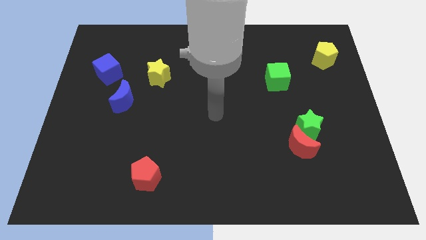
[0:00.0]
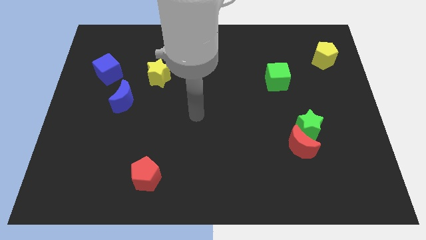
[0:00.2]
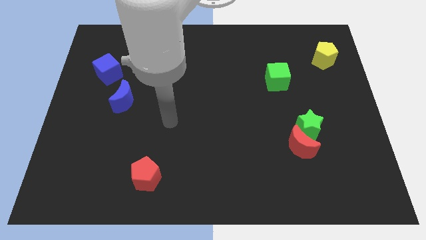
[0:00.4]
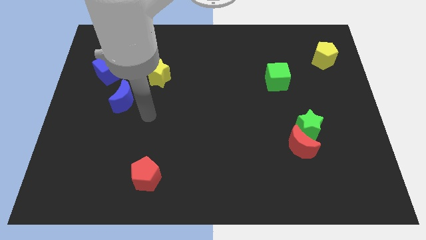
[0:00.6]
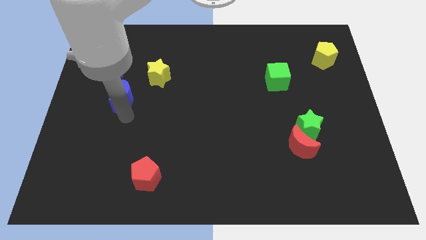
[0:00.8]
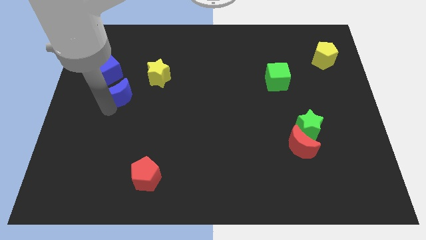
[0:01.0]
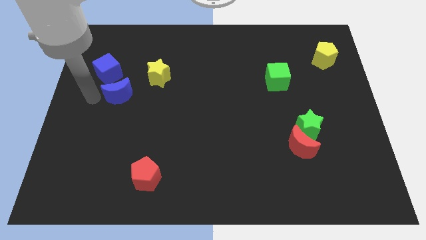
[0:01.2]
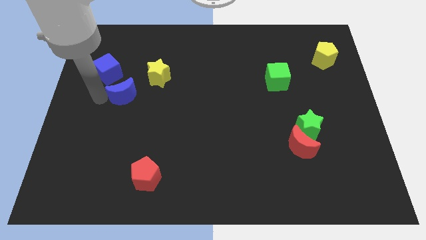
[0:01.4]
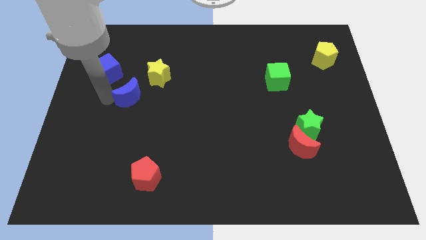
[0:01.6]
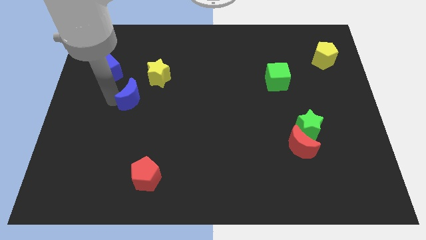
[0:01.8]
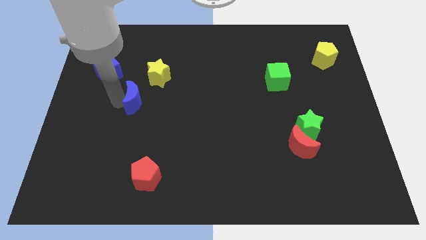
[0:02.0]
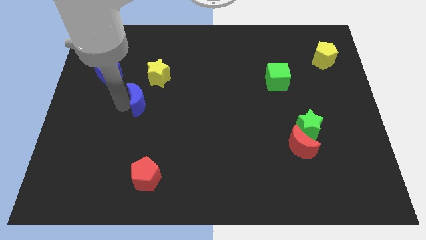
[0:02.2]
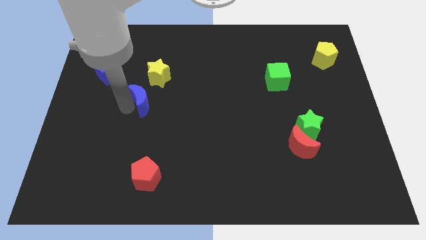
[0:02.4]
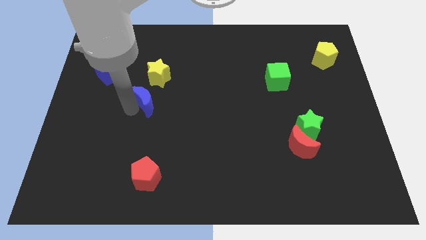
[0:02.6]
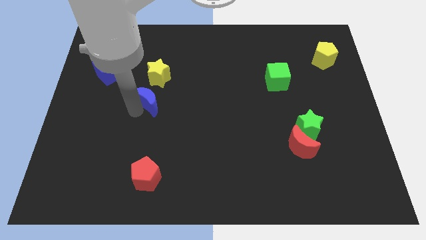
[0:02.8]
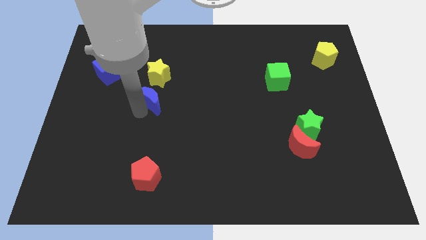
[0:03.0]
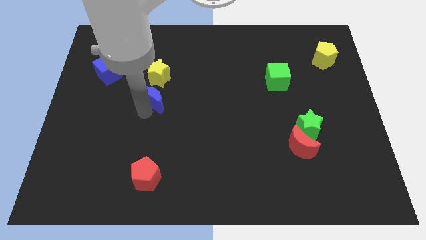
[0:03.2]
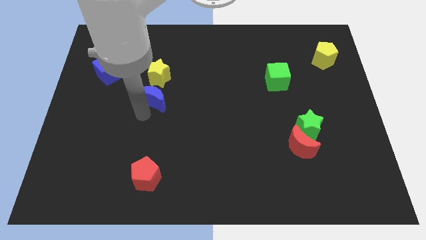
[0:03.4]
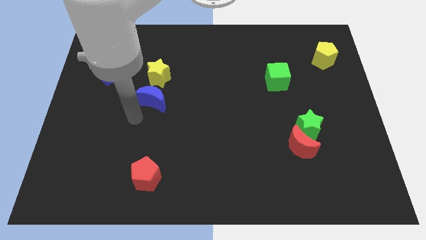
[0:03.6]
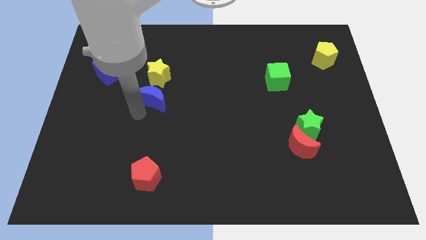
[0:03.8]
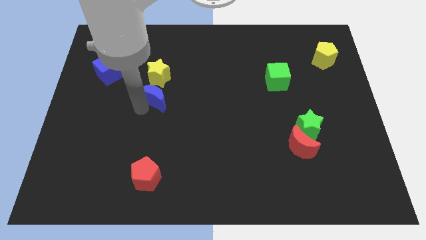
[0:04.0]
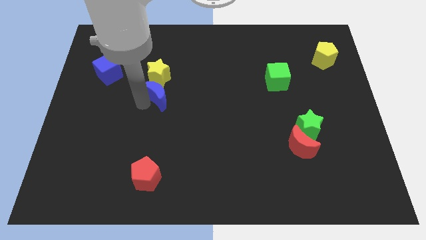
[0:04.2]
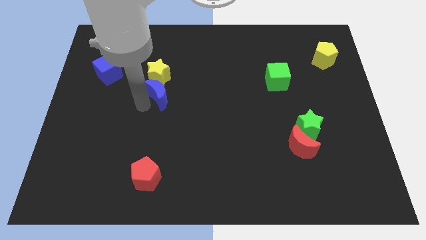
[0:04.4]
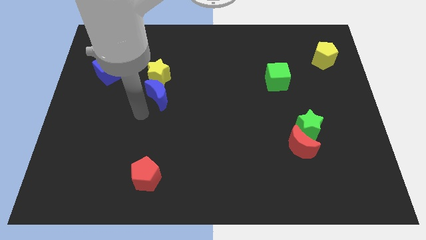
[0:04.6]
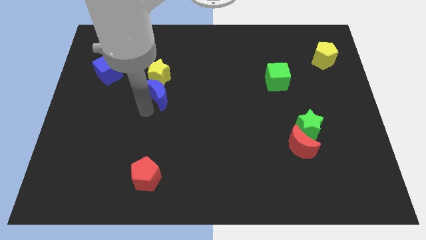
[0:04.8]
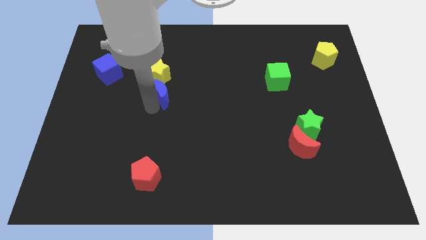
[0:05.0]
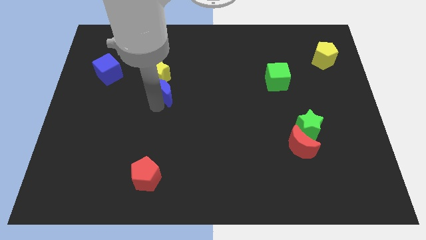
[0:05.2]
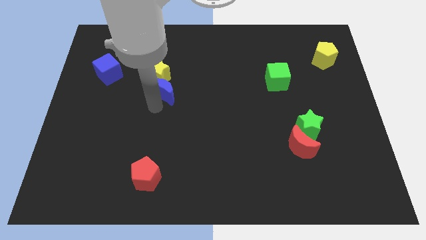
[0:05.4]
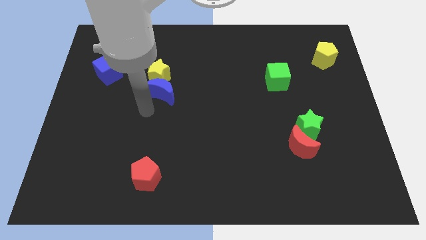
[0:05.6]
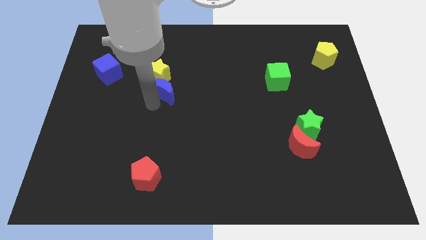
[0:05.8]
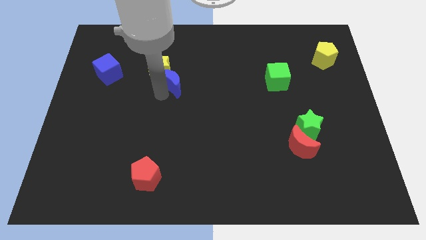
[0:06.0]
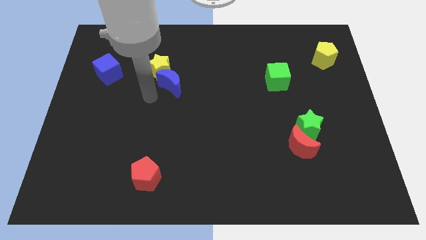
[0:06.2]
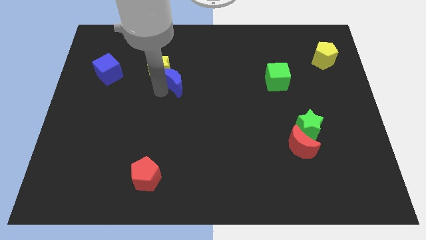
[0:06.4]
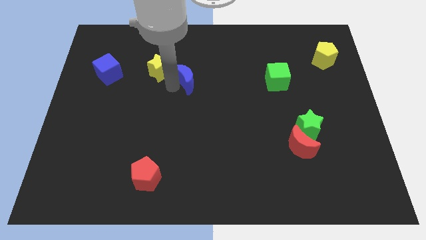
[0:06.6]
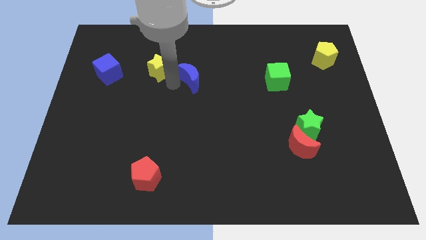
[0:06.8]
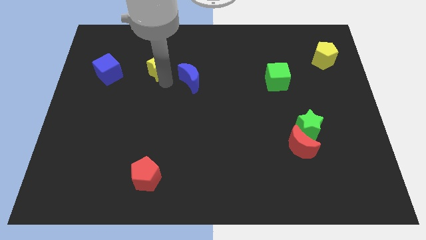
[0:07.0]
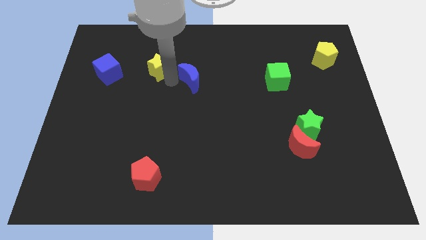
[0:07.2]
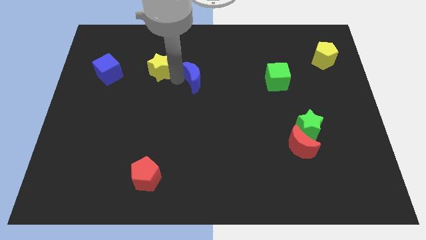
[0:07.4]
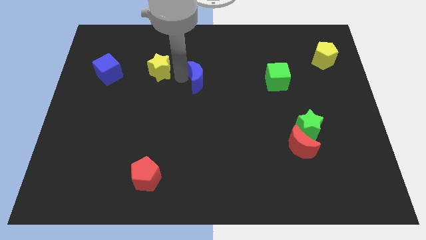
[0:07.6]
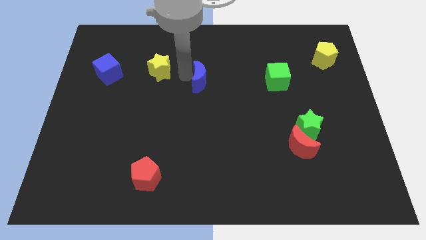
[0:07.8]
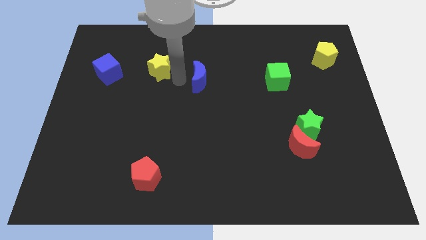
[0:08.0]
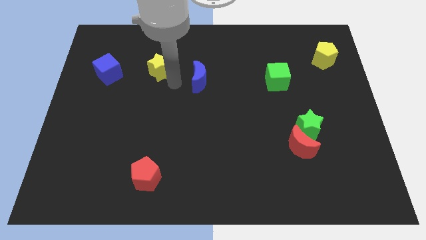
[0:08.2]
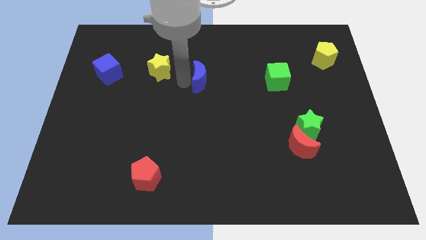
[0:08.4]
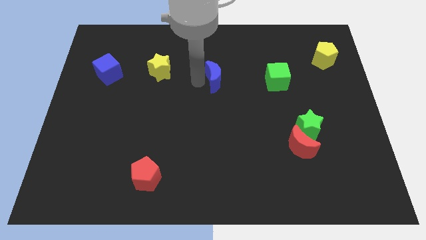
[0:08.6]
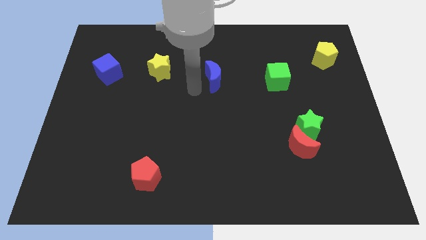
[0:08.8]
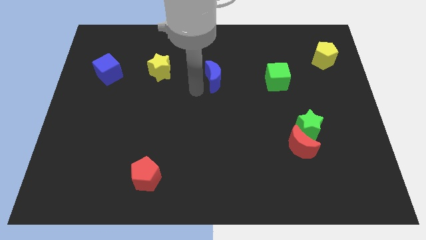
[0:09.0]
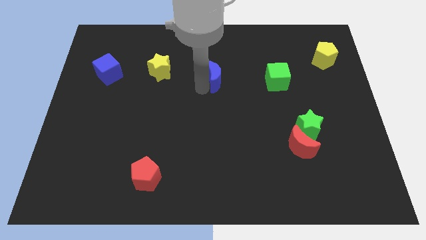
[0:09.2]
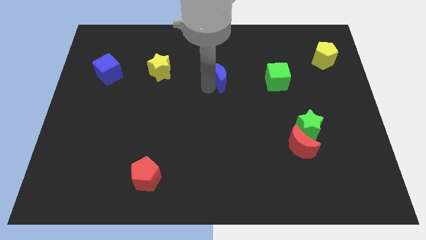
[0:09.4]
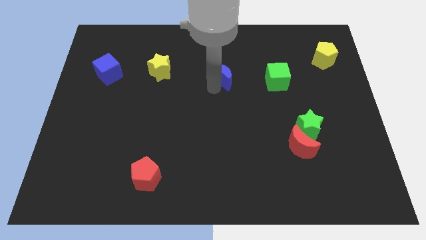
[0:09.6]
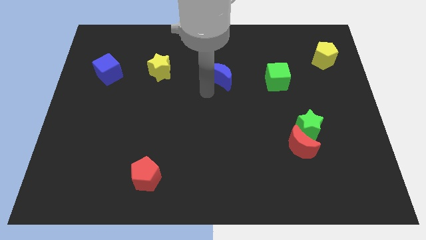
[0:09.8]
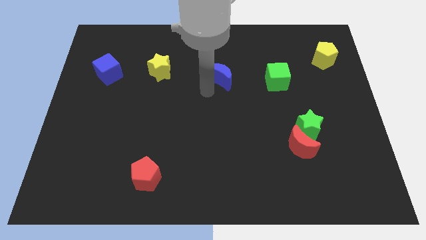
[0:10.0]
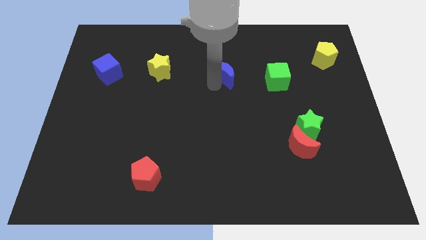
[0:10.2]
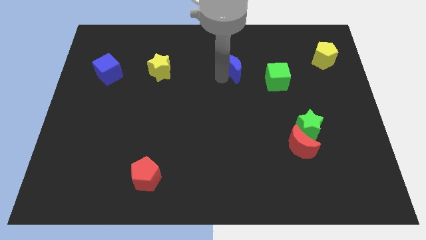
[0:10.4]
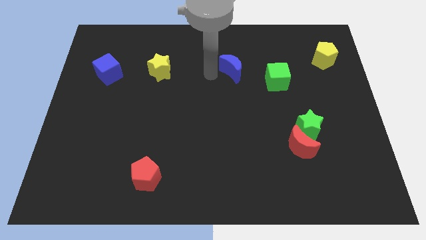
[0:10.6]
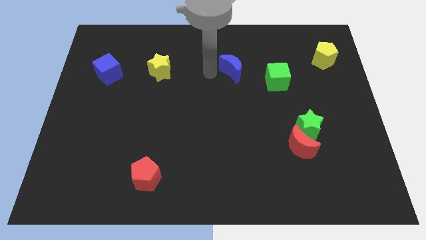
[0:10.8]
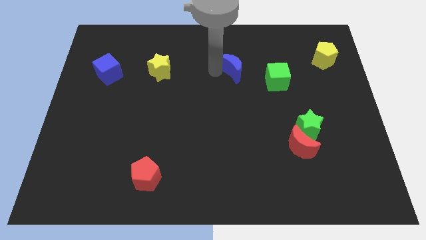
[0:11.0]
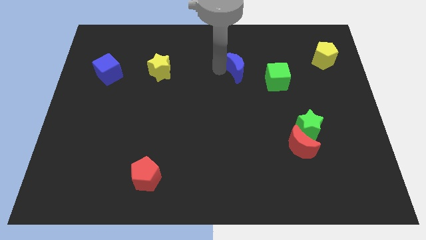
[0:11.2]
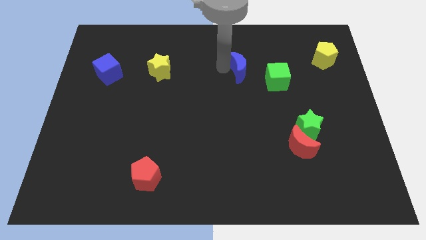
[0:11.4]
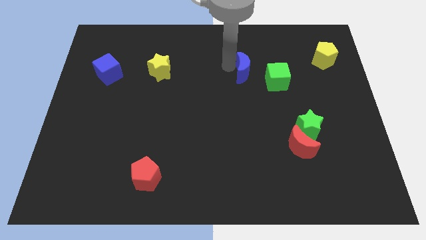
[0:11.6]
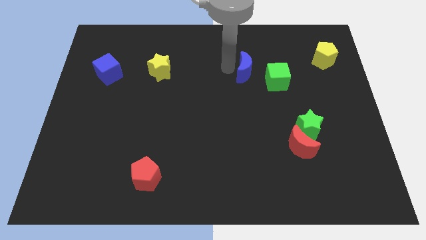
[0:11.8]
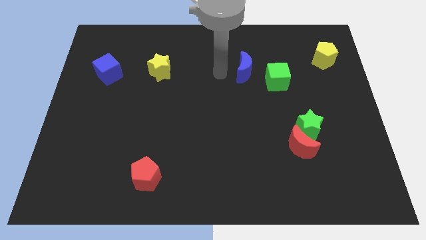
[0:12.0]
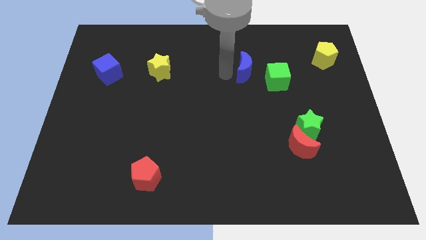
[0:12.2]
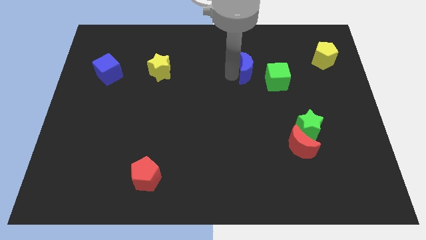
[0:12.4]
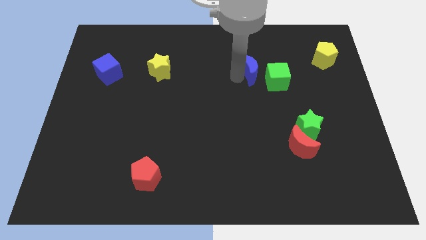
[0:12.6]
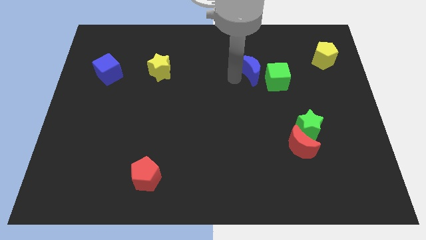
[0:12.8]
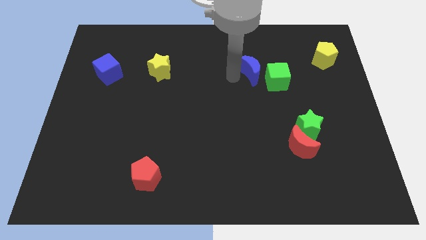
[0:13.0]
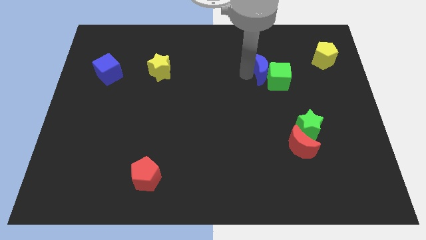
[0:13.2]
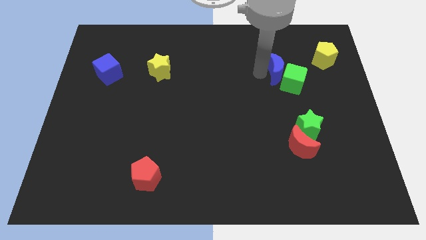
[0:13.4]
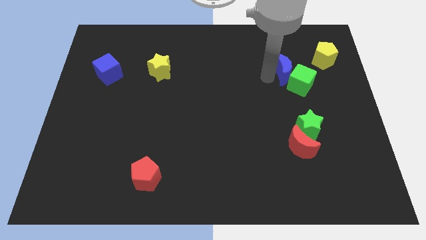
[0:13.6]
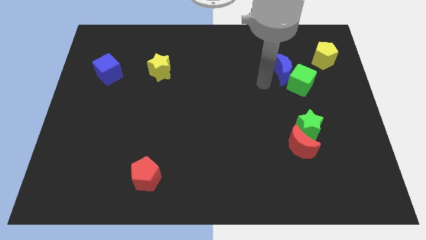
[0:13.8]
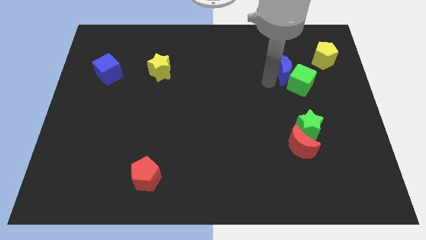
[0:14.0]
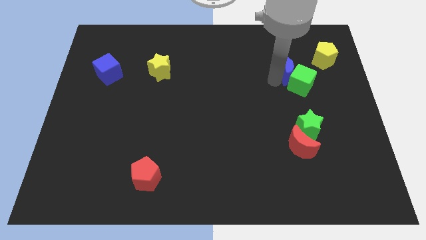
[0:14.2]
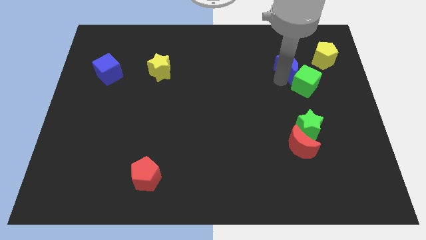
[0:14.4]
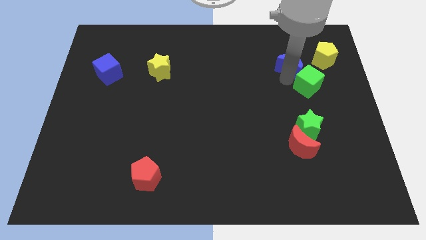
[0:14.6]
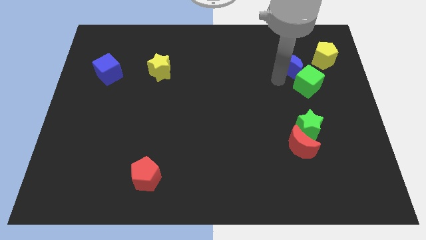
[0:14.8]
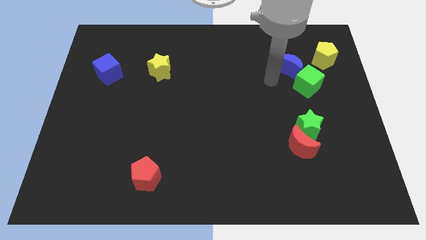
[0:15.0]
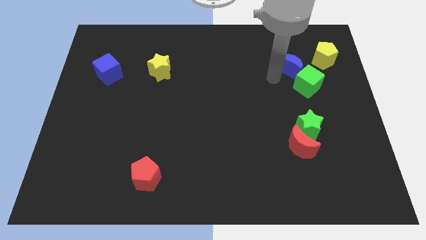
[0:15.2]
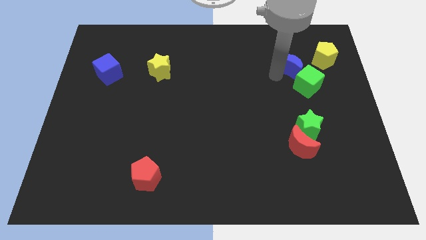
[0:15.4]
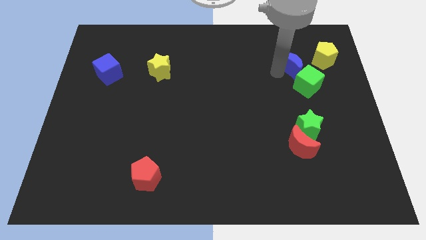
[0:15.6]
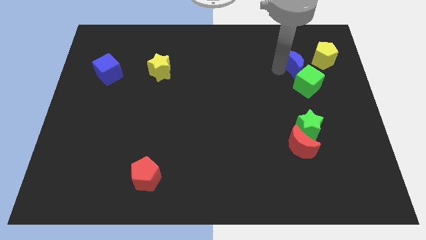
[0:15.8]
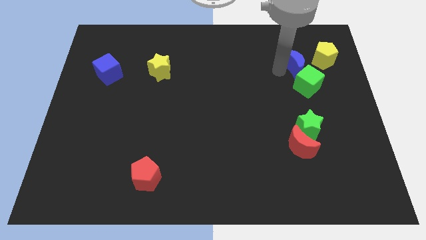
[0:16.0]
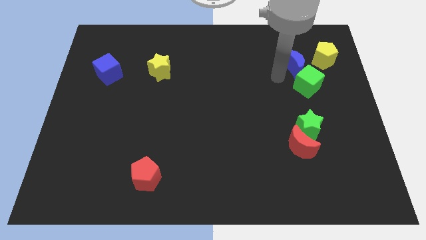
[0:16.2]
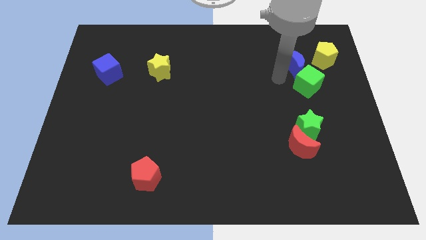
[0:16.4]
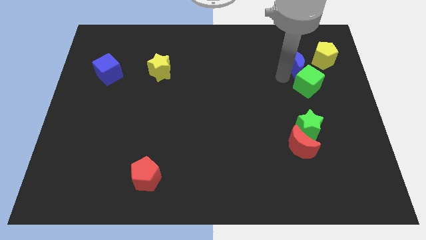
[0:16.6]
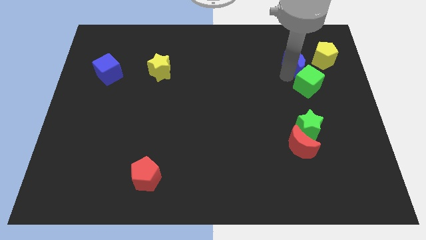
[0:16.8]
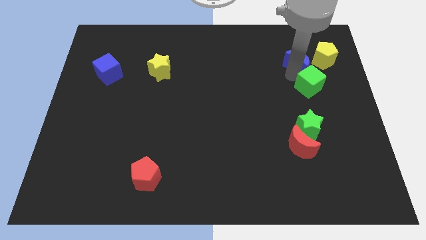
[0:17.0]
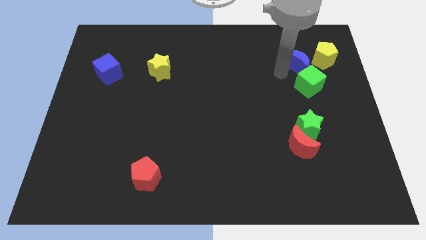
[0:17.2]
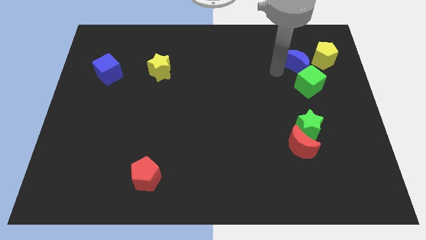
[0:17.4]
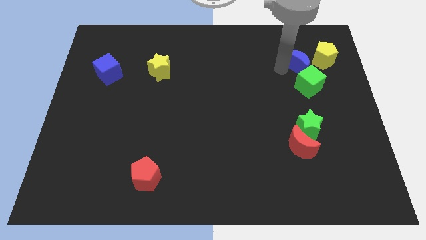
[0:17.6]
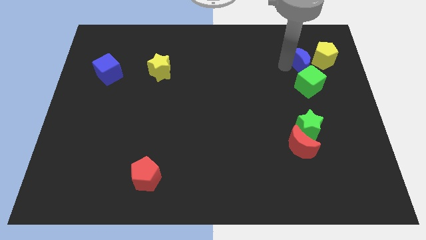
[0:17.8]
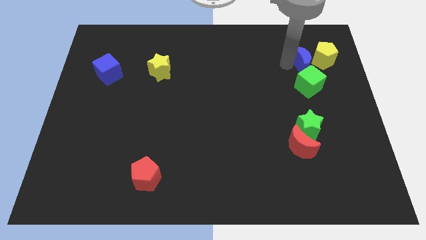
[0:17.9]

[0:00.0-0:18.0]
move the blue moon close to the yellow pentagon
